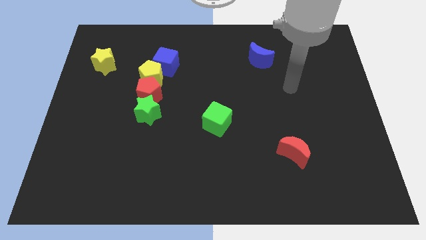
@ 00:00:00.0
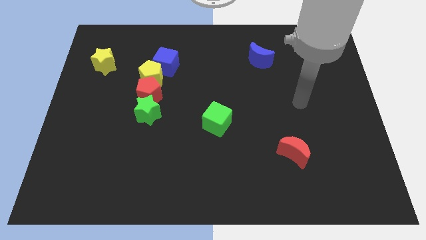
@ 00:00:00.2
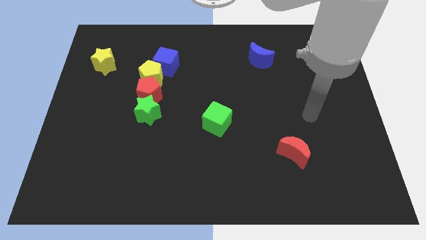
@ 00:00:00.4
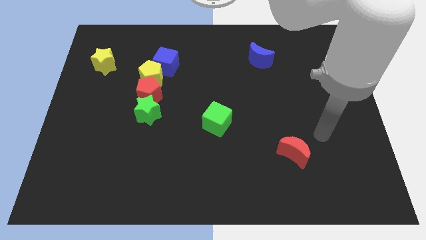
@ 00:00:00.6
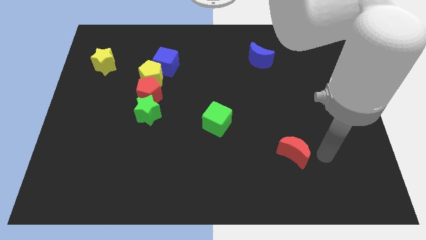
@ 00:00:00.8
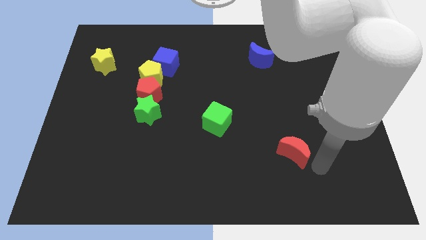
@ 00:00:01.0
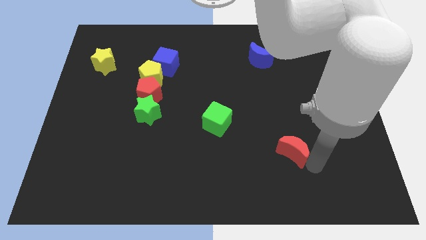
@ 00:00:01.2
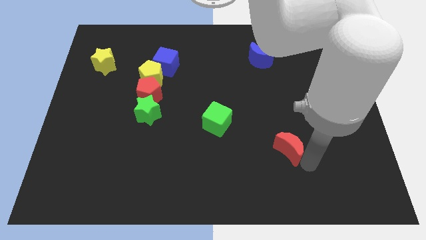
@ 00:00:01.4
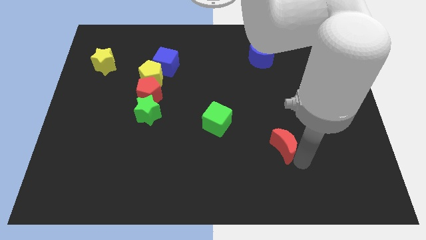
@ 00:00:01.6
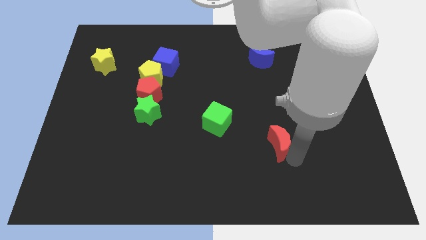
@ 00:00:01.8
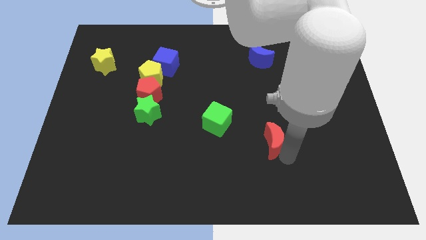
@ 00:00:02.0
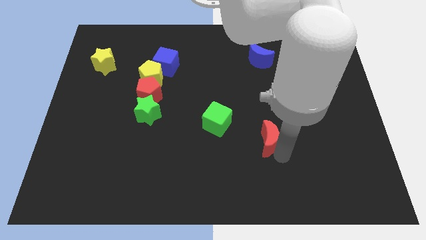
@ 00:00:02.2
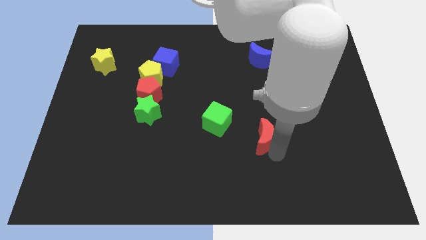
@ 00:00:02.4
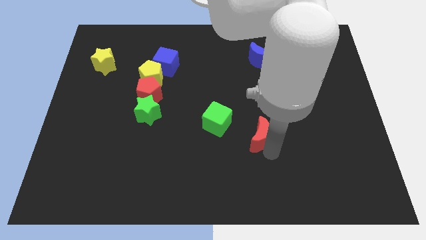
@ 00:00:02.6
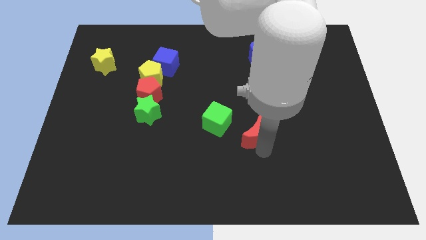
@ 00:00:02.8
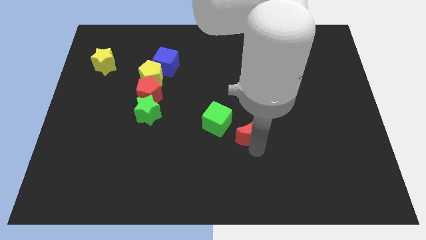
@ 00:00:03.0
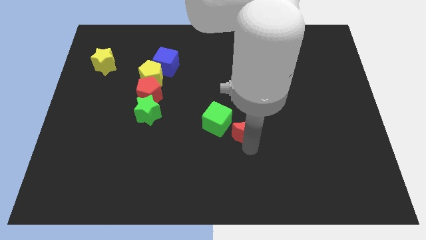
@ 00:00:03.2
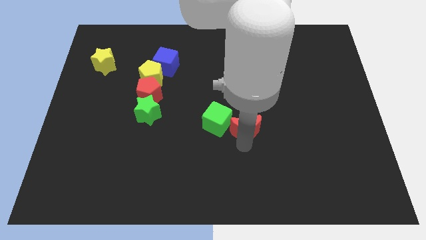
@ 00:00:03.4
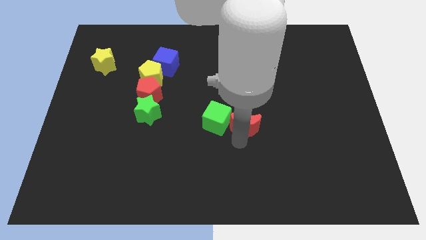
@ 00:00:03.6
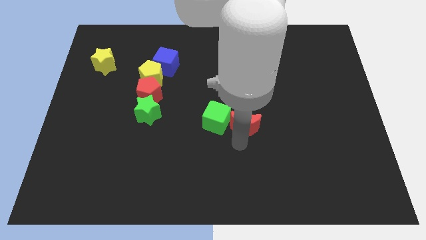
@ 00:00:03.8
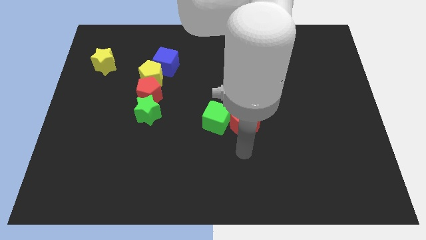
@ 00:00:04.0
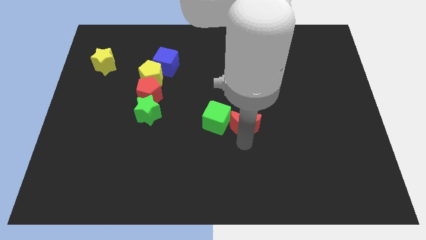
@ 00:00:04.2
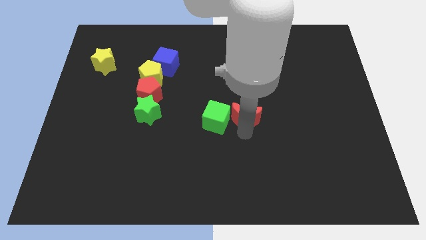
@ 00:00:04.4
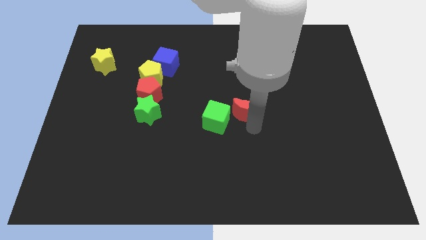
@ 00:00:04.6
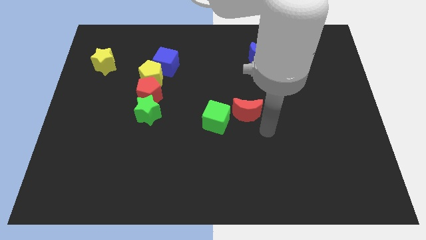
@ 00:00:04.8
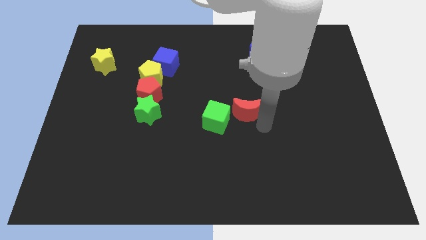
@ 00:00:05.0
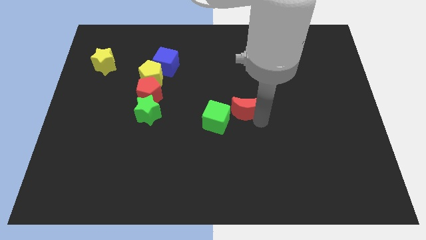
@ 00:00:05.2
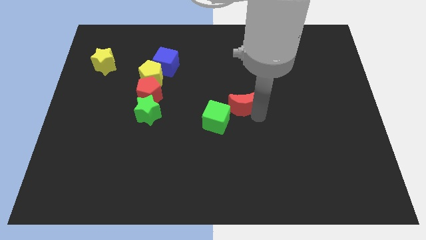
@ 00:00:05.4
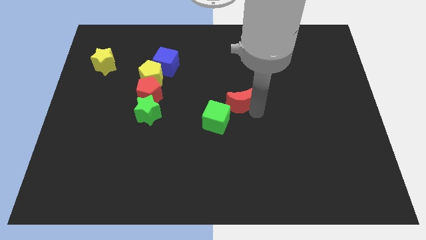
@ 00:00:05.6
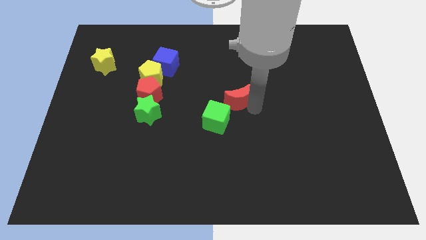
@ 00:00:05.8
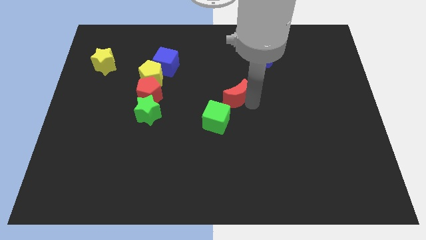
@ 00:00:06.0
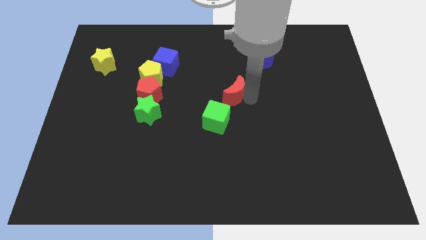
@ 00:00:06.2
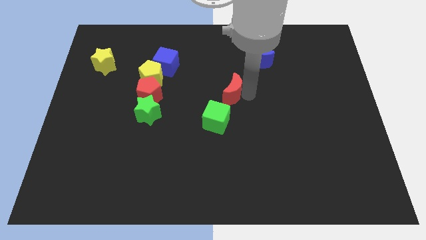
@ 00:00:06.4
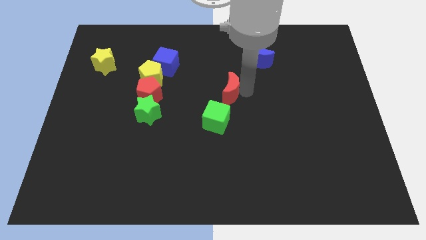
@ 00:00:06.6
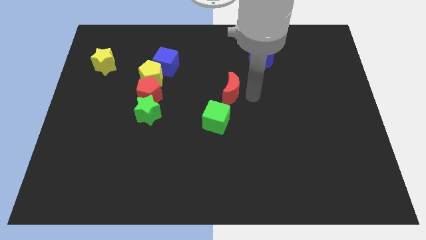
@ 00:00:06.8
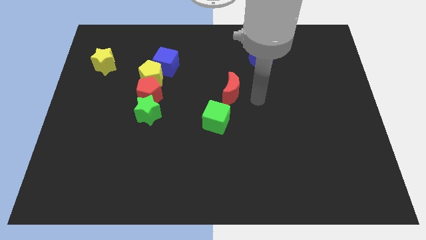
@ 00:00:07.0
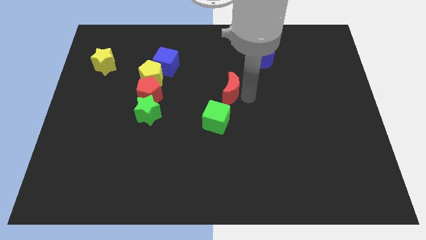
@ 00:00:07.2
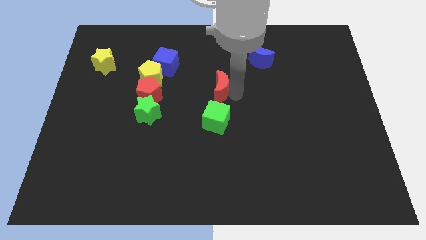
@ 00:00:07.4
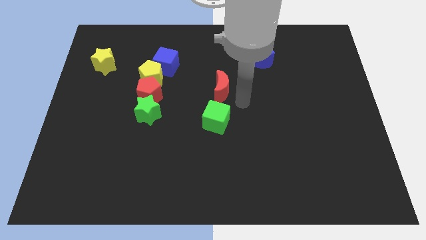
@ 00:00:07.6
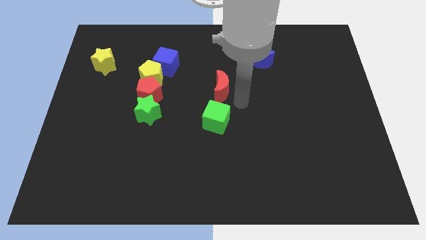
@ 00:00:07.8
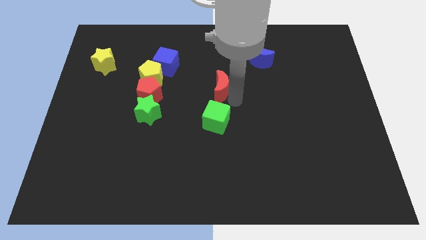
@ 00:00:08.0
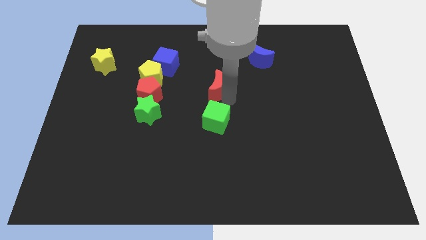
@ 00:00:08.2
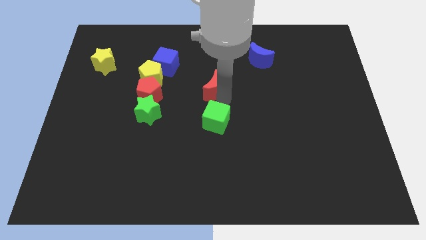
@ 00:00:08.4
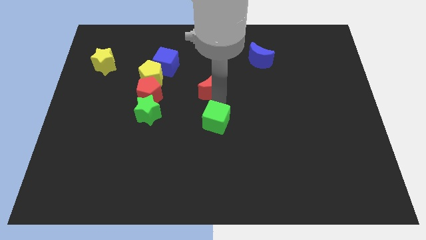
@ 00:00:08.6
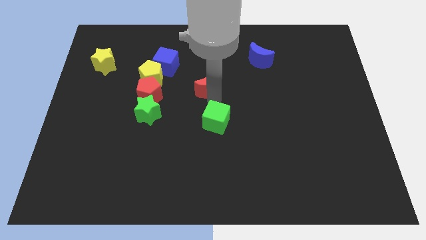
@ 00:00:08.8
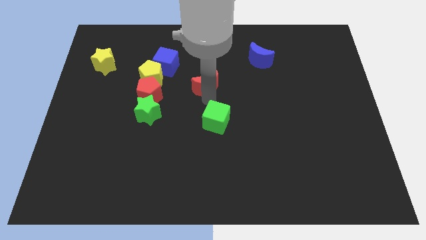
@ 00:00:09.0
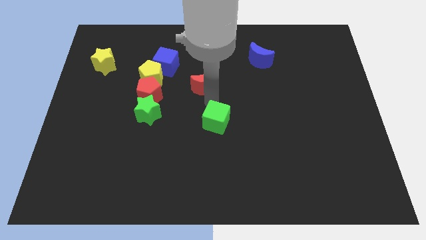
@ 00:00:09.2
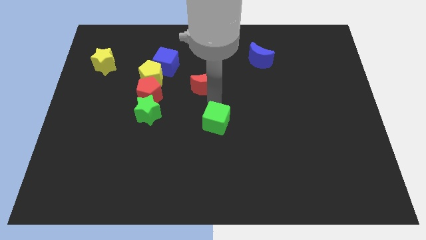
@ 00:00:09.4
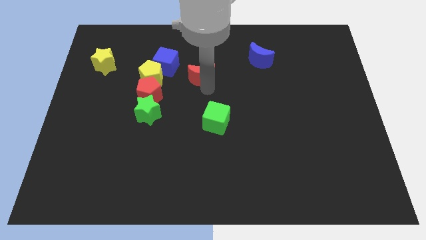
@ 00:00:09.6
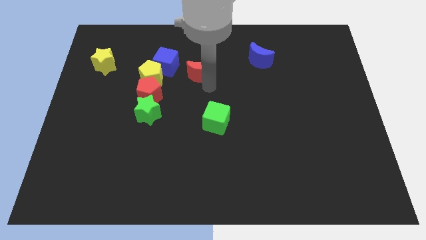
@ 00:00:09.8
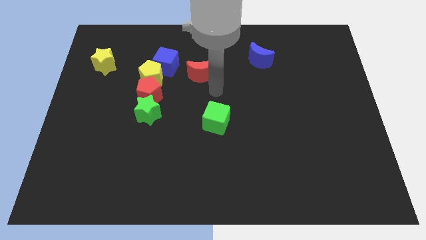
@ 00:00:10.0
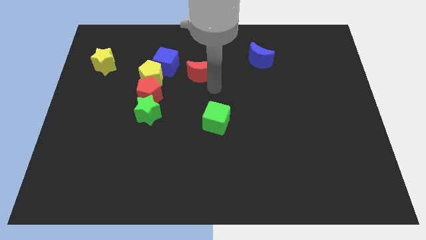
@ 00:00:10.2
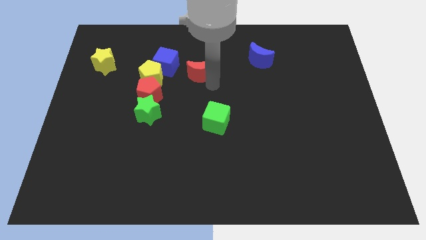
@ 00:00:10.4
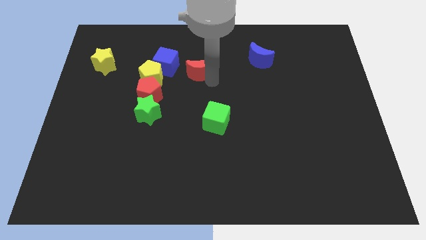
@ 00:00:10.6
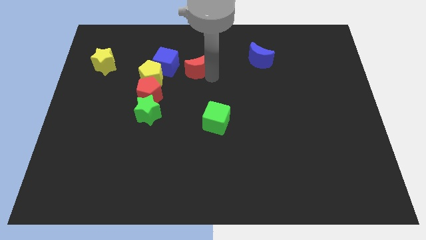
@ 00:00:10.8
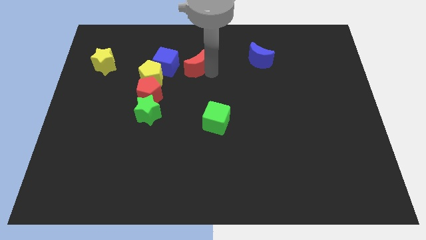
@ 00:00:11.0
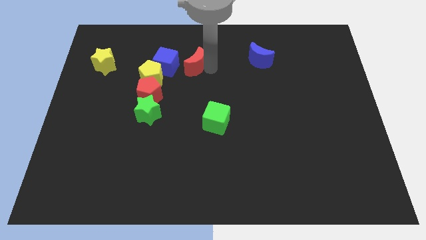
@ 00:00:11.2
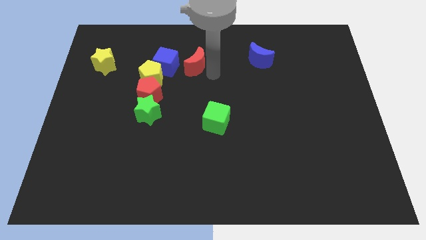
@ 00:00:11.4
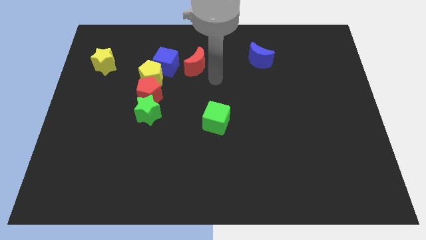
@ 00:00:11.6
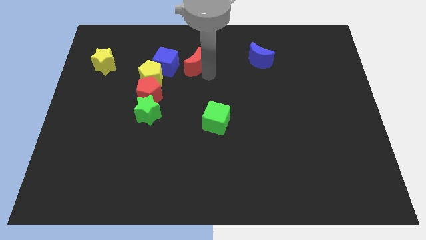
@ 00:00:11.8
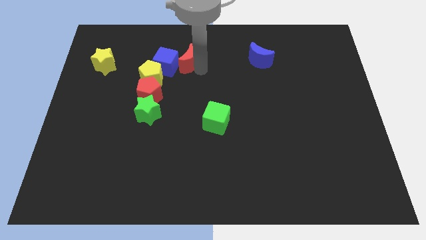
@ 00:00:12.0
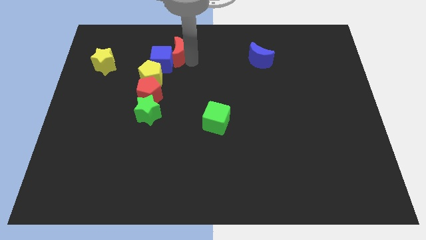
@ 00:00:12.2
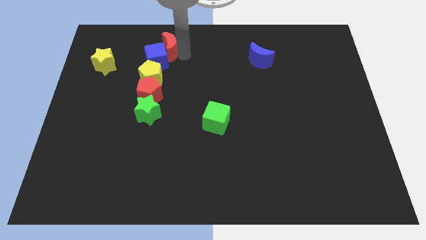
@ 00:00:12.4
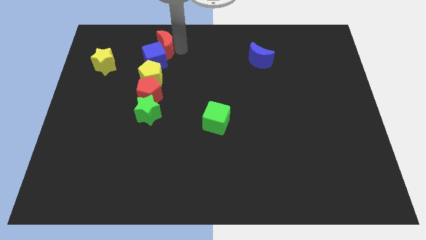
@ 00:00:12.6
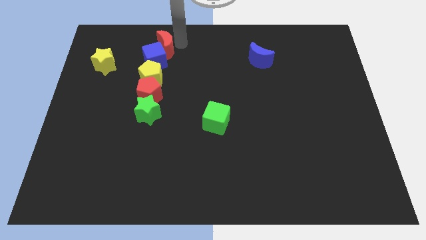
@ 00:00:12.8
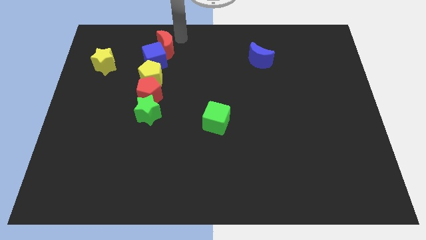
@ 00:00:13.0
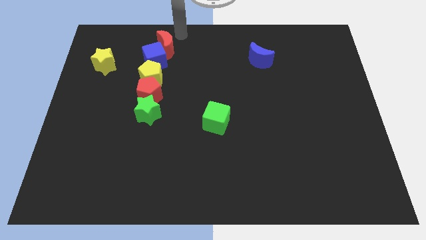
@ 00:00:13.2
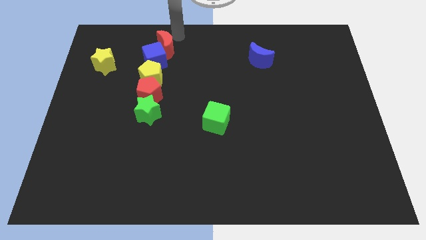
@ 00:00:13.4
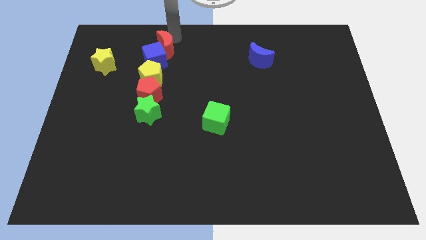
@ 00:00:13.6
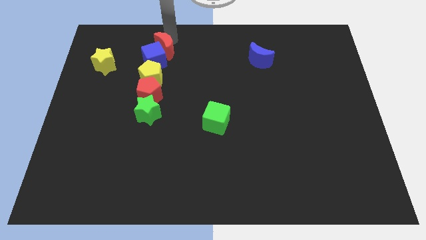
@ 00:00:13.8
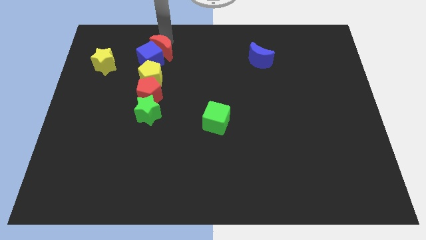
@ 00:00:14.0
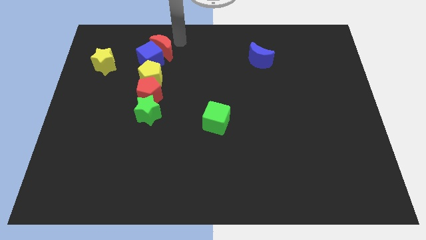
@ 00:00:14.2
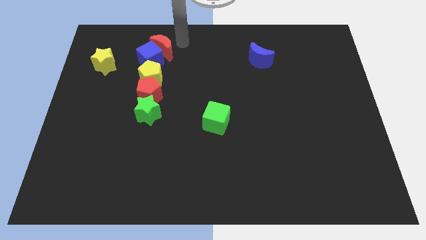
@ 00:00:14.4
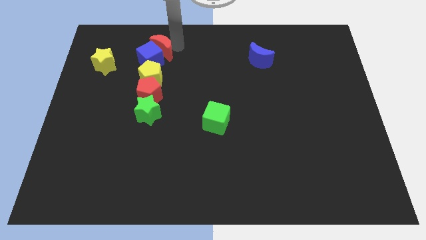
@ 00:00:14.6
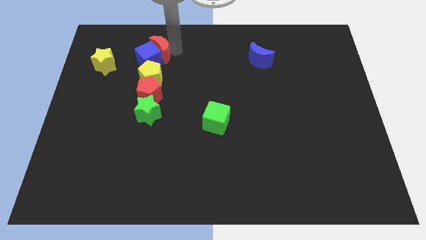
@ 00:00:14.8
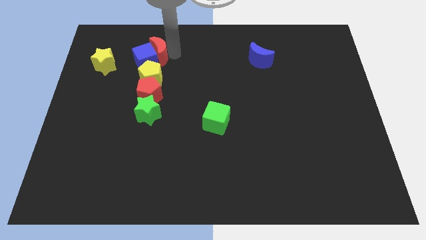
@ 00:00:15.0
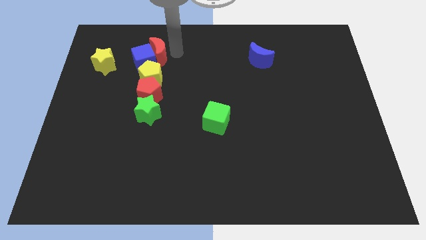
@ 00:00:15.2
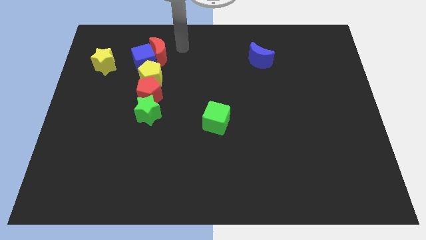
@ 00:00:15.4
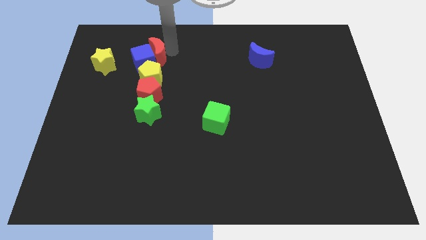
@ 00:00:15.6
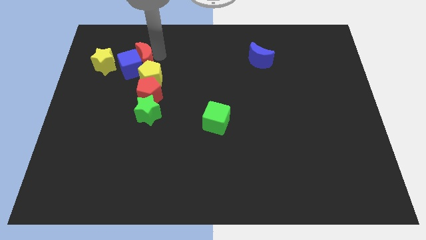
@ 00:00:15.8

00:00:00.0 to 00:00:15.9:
put the red moon to the top left of the yellow pentagon
